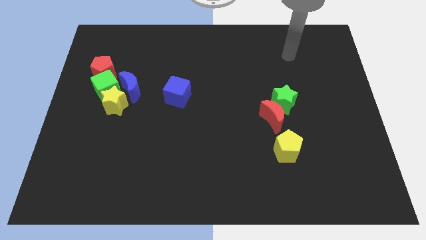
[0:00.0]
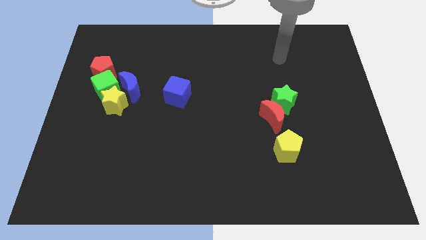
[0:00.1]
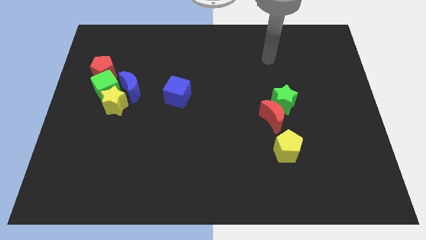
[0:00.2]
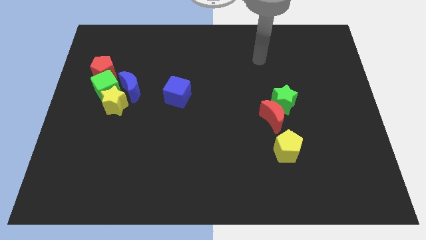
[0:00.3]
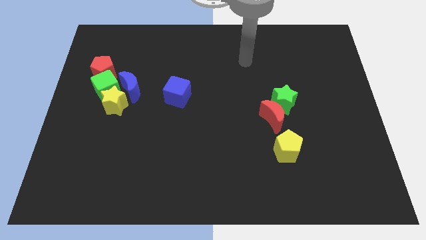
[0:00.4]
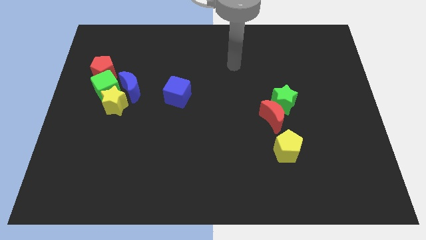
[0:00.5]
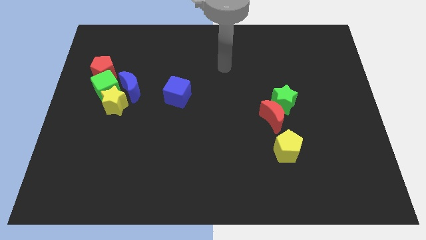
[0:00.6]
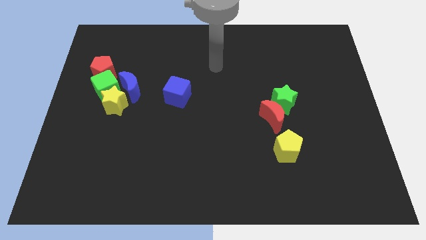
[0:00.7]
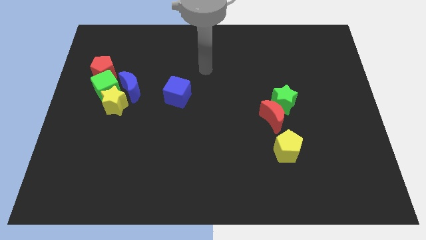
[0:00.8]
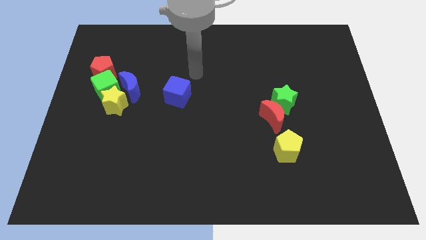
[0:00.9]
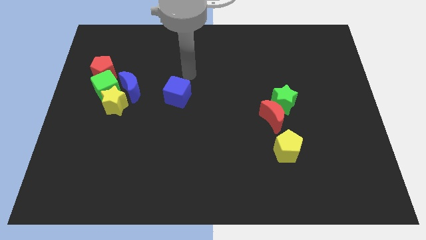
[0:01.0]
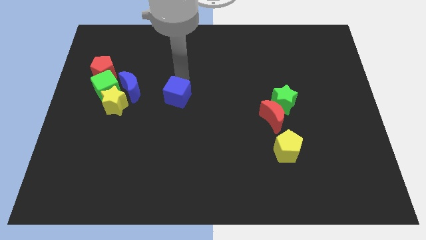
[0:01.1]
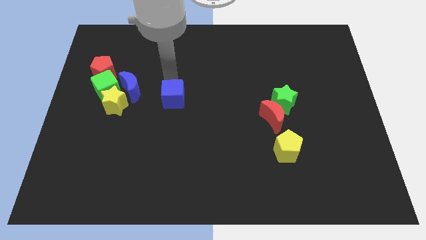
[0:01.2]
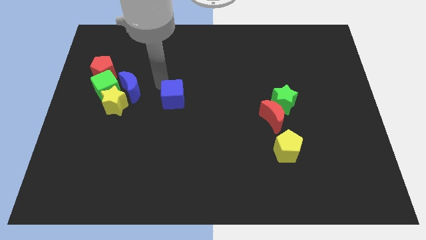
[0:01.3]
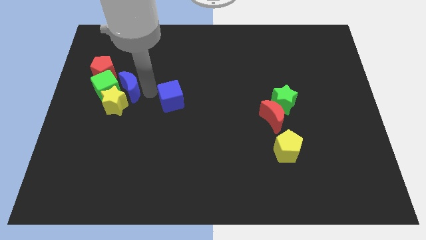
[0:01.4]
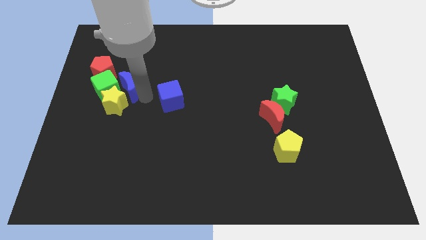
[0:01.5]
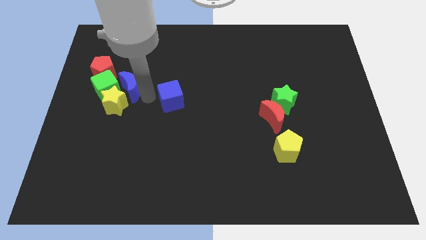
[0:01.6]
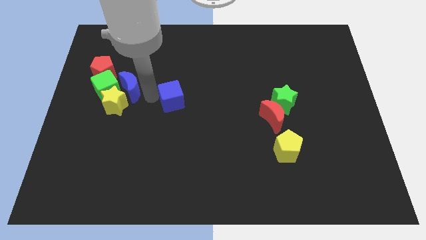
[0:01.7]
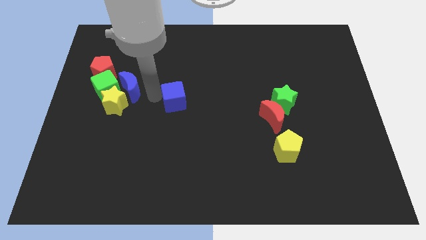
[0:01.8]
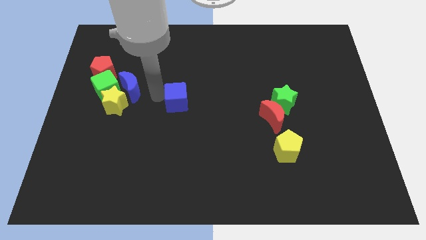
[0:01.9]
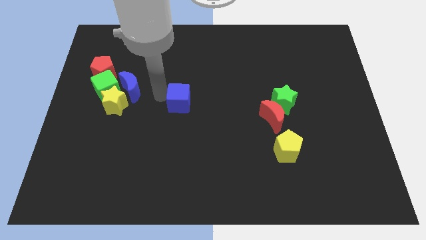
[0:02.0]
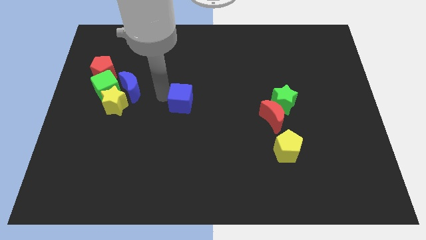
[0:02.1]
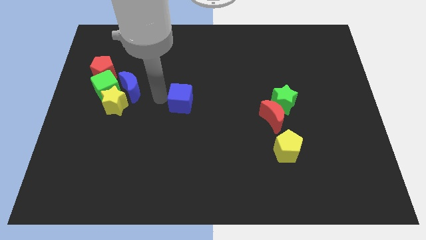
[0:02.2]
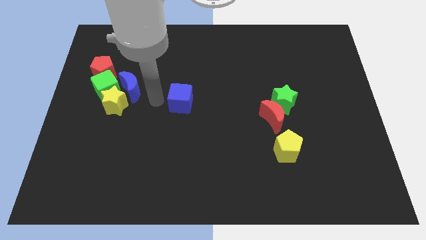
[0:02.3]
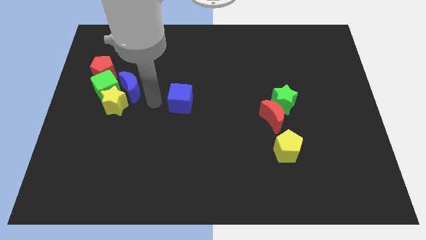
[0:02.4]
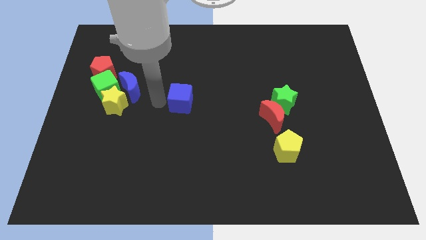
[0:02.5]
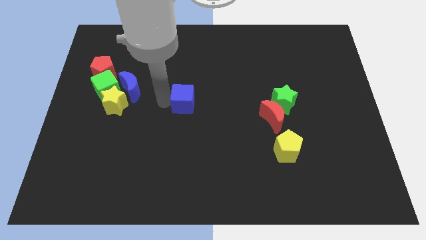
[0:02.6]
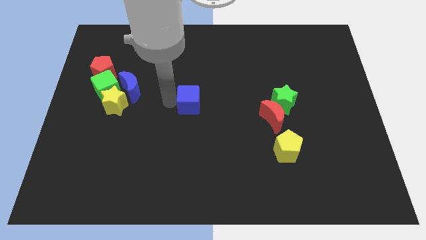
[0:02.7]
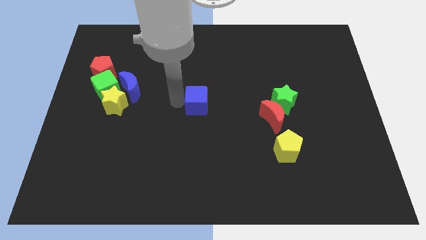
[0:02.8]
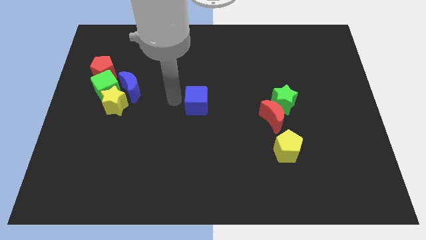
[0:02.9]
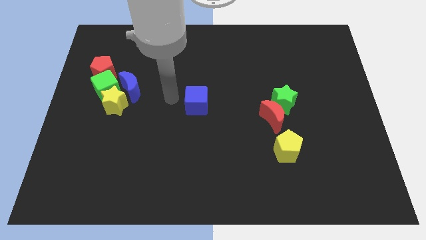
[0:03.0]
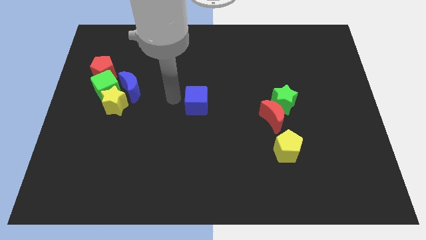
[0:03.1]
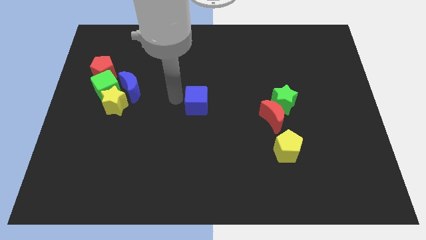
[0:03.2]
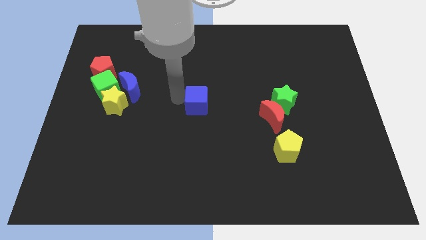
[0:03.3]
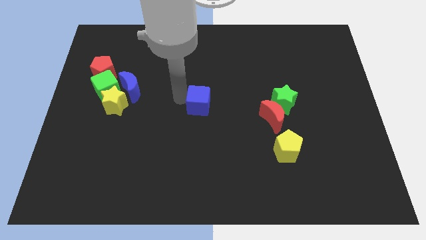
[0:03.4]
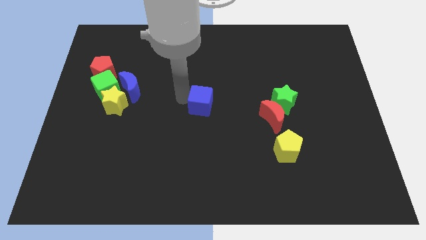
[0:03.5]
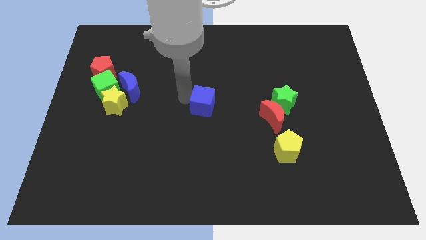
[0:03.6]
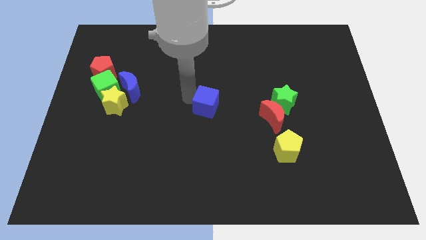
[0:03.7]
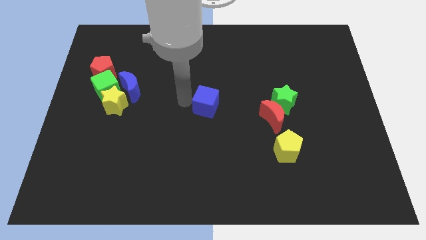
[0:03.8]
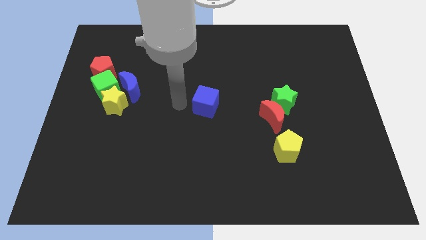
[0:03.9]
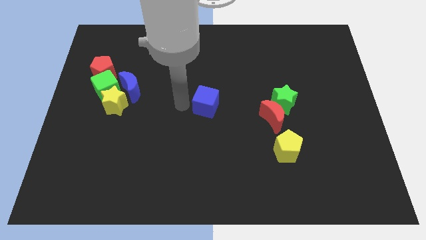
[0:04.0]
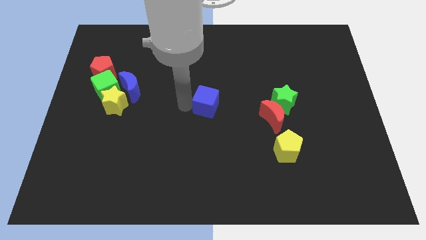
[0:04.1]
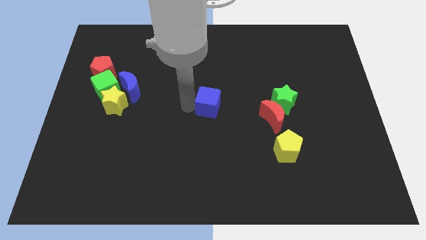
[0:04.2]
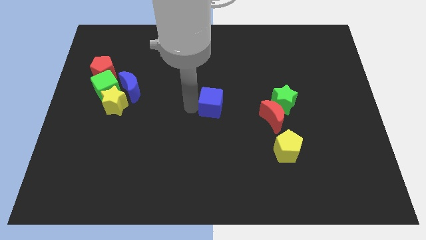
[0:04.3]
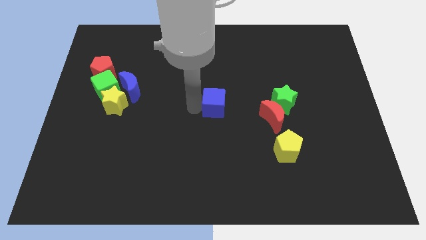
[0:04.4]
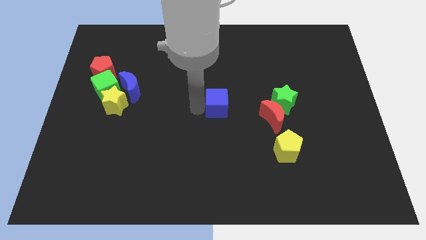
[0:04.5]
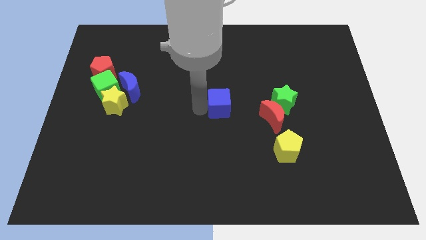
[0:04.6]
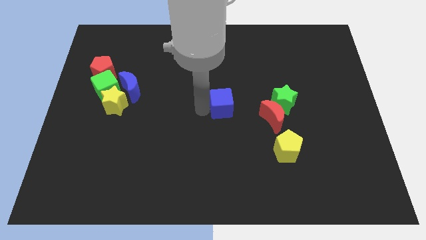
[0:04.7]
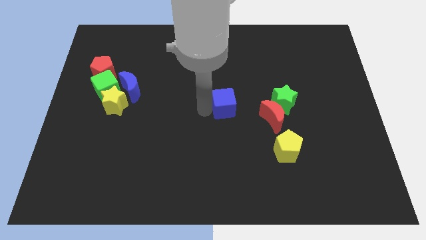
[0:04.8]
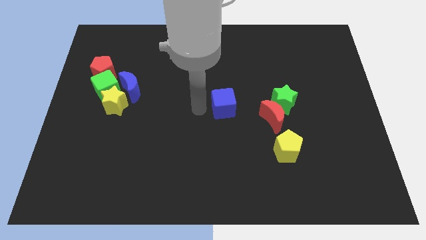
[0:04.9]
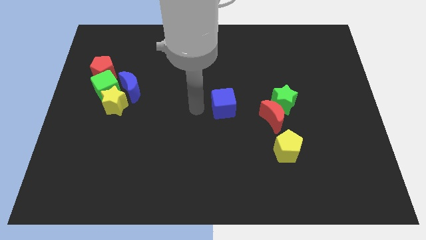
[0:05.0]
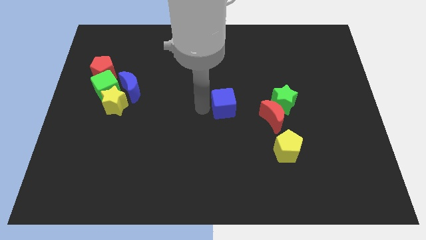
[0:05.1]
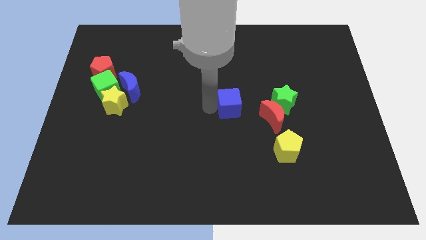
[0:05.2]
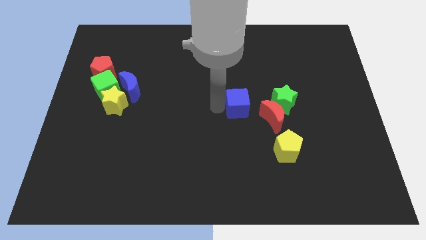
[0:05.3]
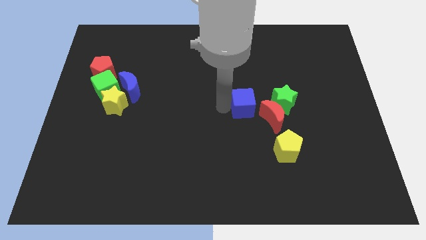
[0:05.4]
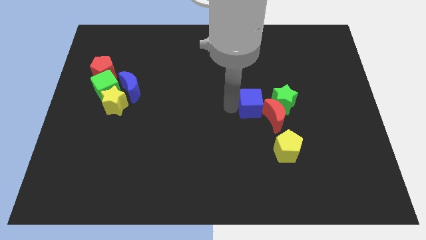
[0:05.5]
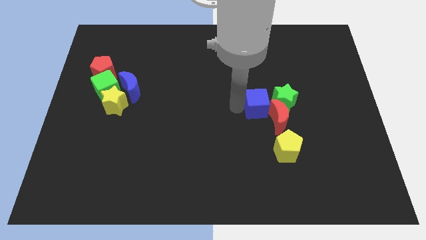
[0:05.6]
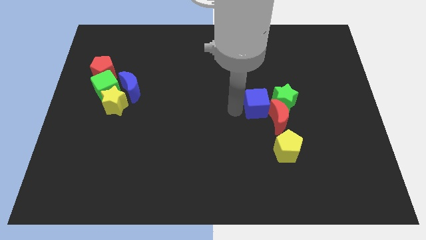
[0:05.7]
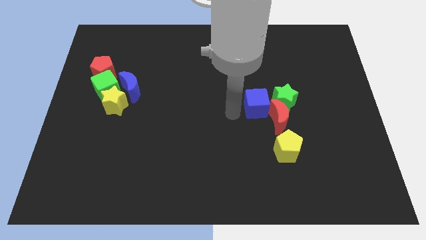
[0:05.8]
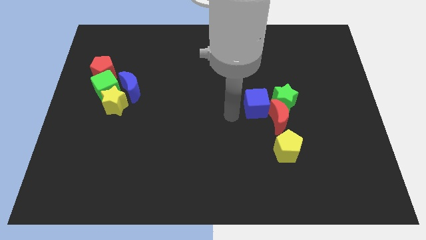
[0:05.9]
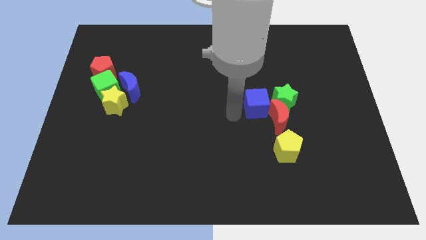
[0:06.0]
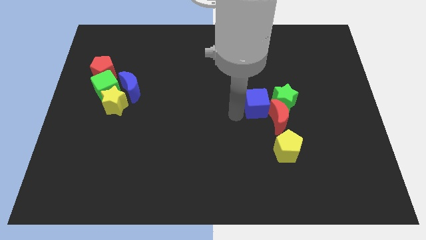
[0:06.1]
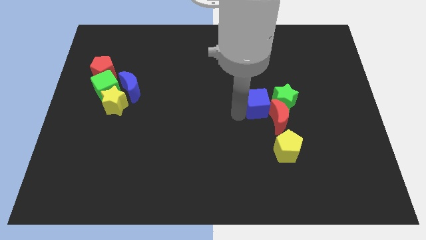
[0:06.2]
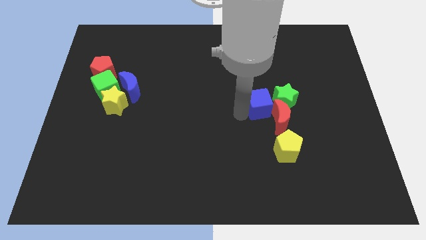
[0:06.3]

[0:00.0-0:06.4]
move the blue cube to the green star

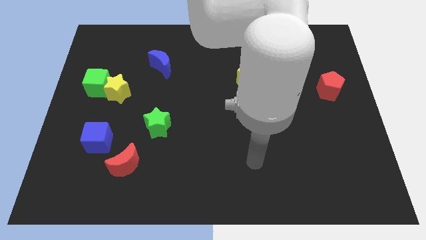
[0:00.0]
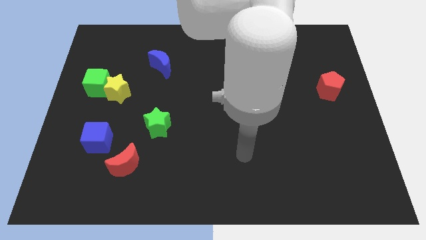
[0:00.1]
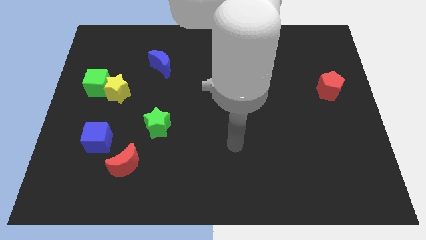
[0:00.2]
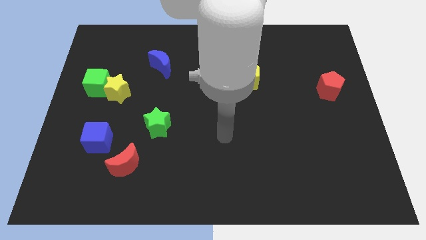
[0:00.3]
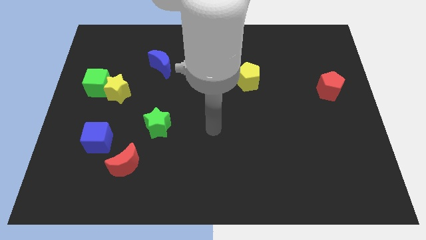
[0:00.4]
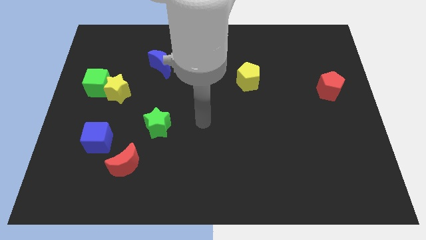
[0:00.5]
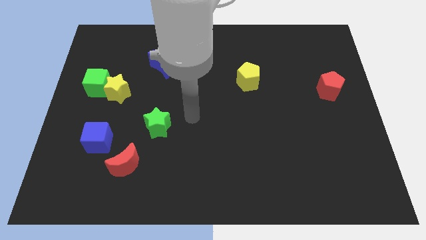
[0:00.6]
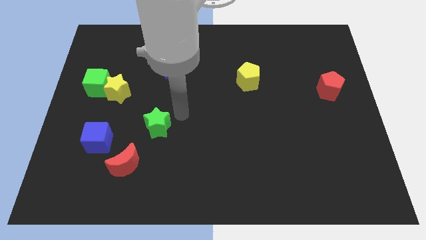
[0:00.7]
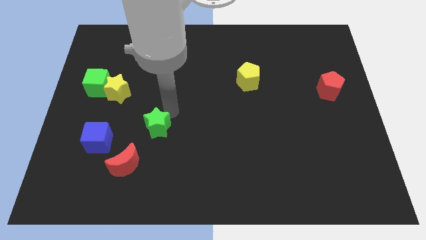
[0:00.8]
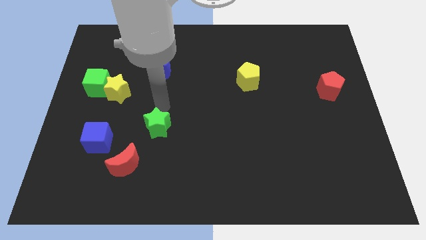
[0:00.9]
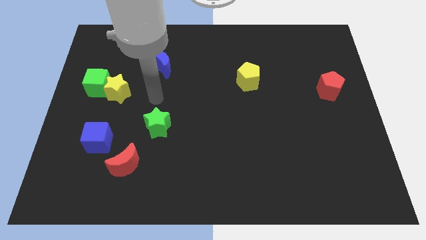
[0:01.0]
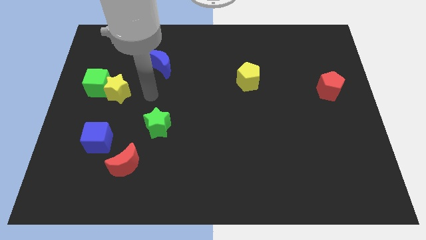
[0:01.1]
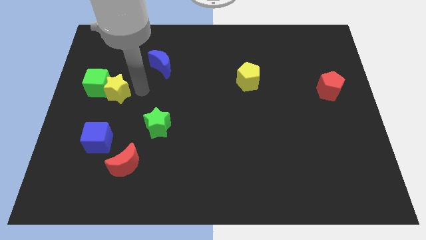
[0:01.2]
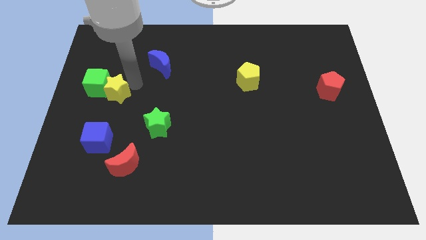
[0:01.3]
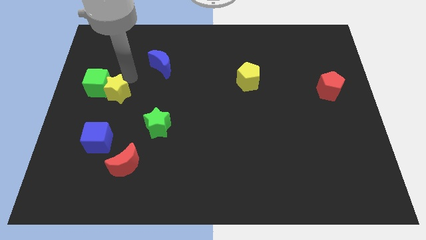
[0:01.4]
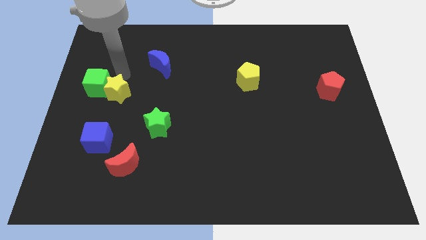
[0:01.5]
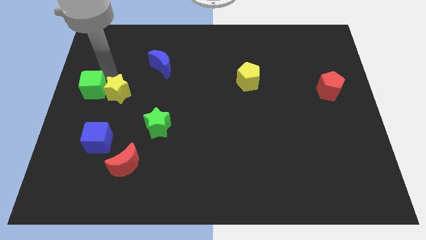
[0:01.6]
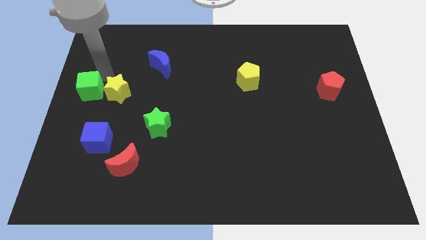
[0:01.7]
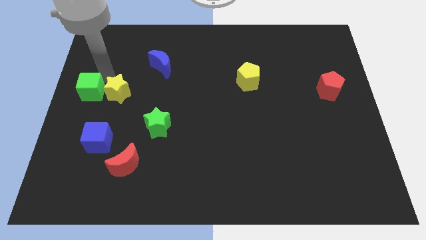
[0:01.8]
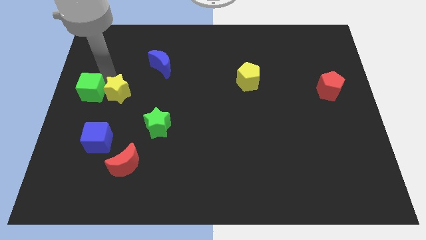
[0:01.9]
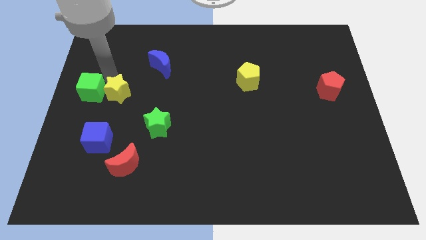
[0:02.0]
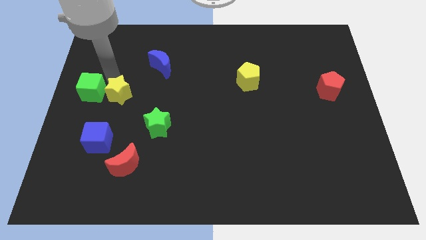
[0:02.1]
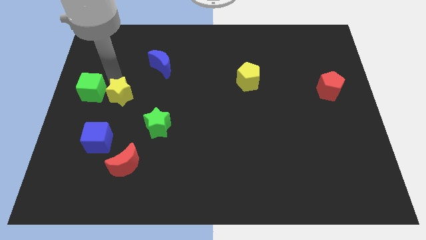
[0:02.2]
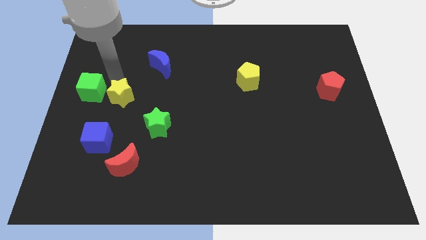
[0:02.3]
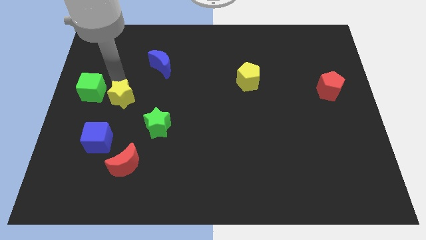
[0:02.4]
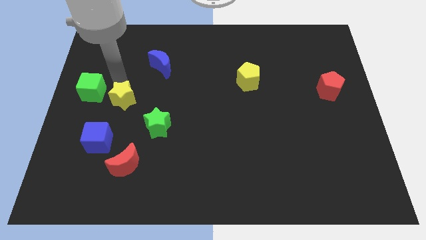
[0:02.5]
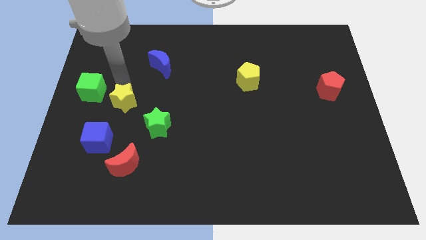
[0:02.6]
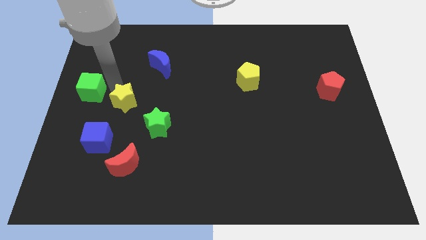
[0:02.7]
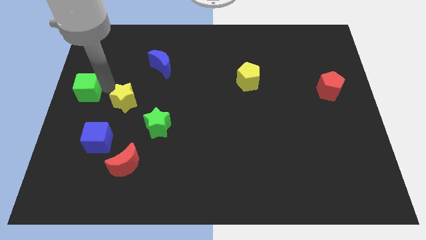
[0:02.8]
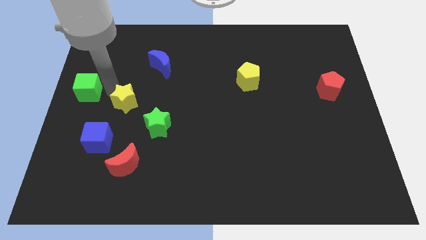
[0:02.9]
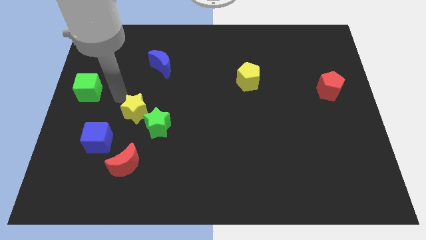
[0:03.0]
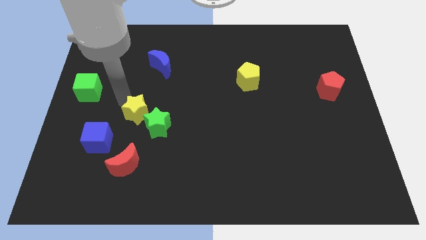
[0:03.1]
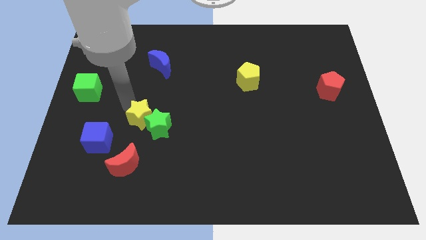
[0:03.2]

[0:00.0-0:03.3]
slide the yellow star next to the green star
